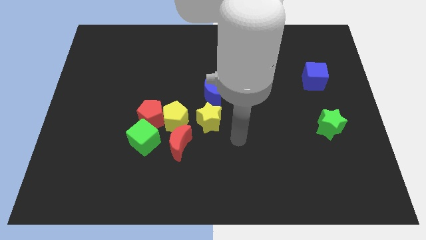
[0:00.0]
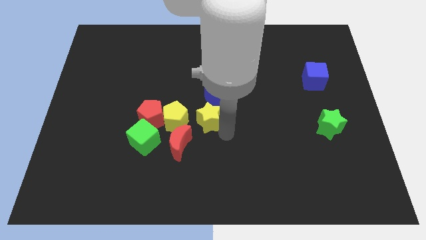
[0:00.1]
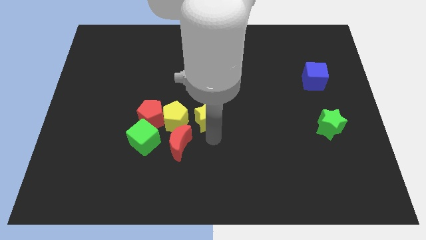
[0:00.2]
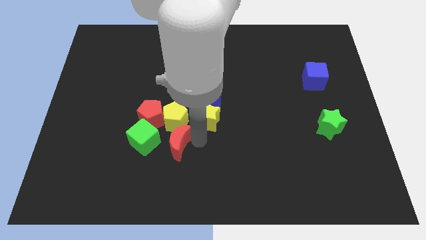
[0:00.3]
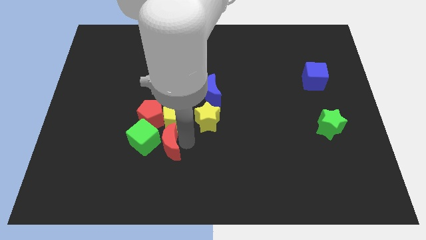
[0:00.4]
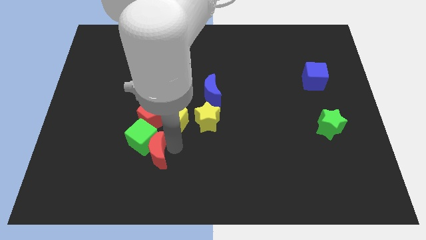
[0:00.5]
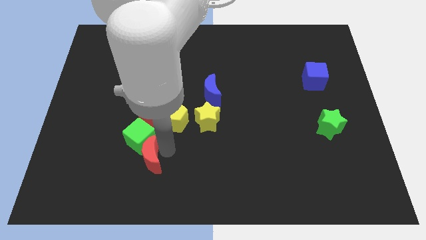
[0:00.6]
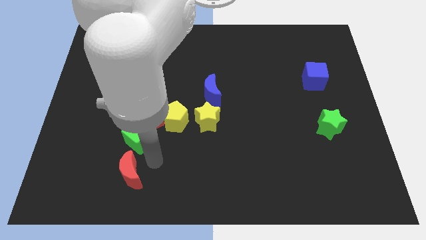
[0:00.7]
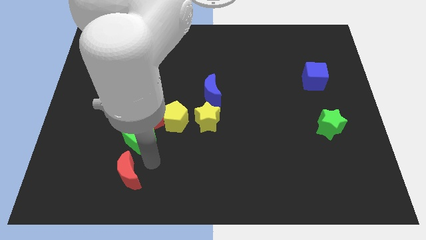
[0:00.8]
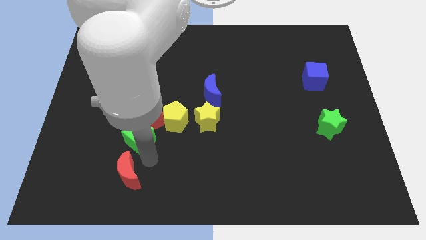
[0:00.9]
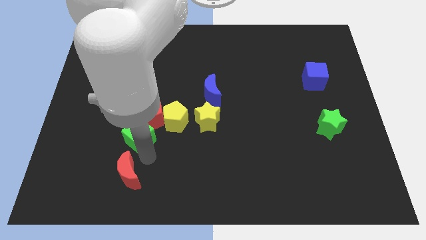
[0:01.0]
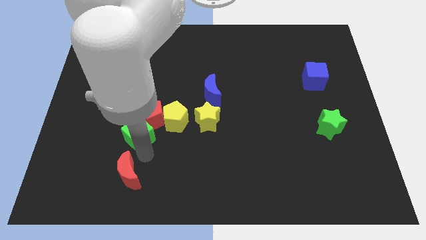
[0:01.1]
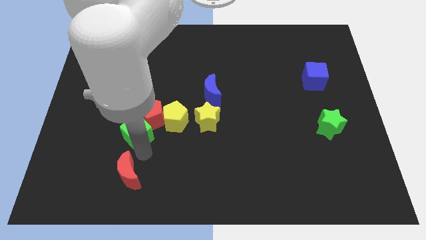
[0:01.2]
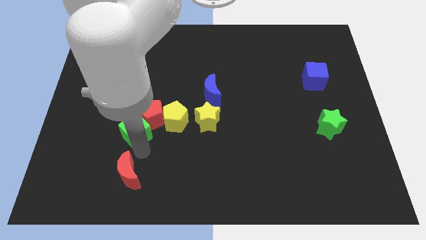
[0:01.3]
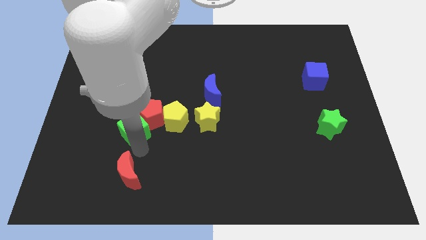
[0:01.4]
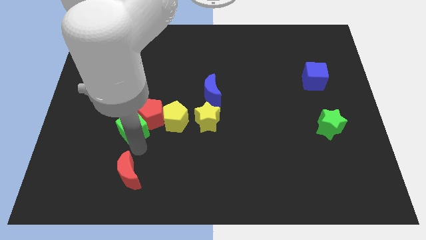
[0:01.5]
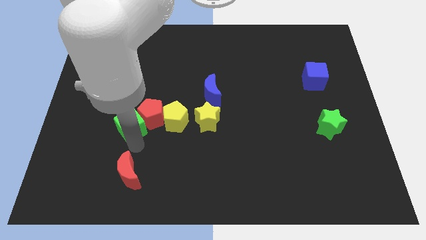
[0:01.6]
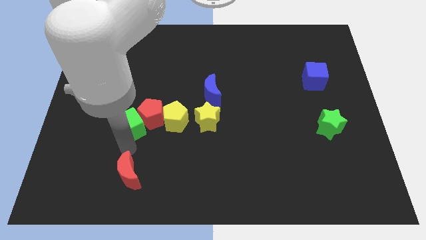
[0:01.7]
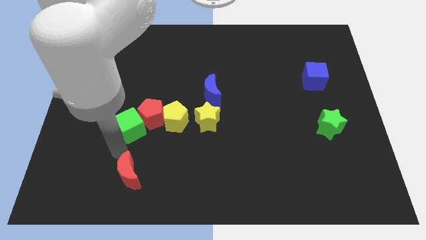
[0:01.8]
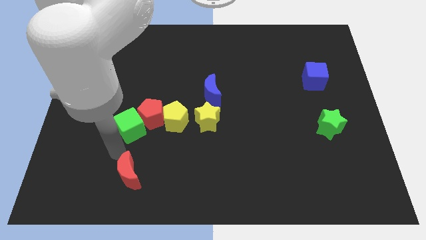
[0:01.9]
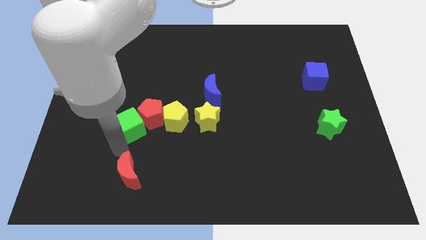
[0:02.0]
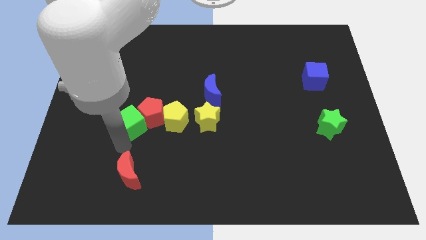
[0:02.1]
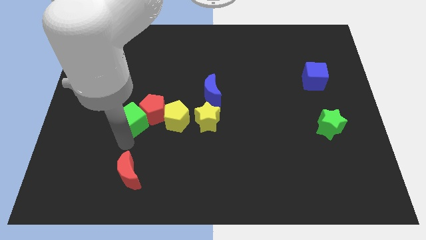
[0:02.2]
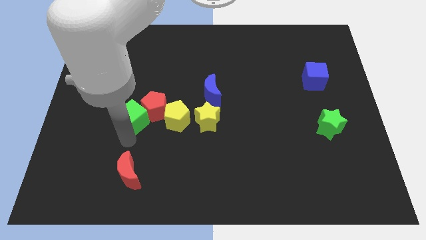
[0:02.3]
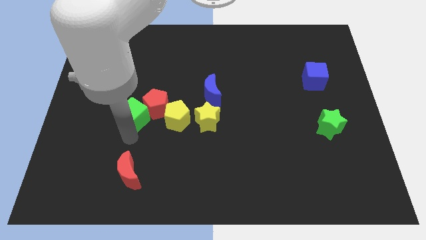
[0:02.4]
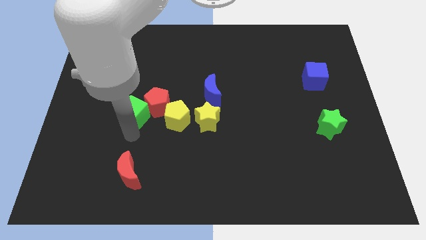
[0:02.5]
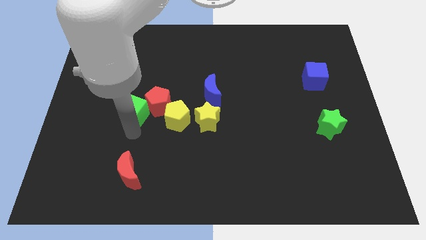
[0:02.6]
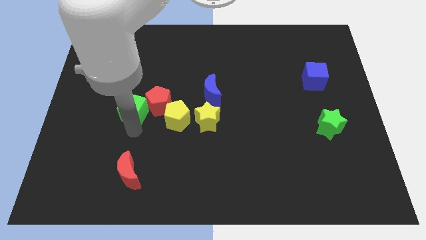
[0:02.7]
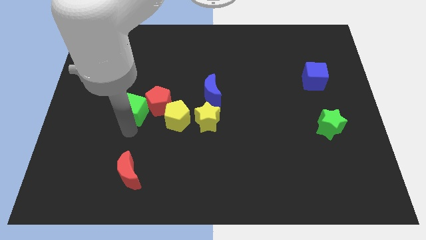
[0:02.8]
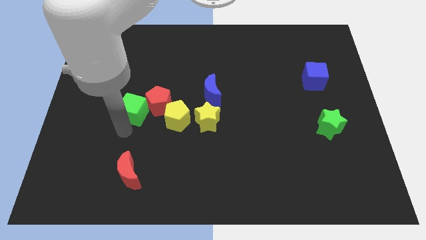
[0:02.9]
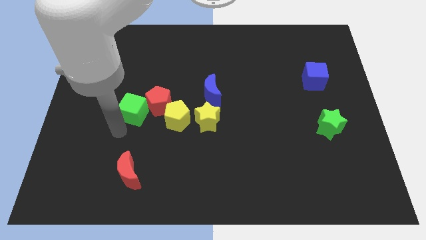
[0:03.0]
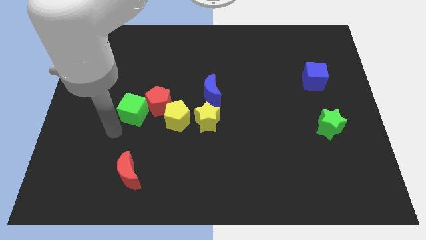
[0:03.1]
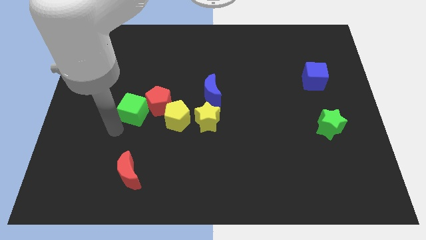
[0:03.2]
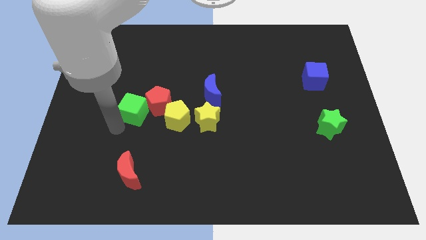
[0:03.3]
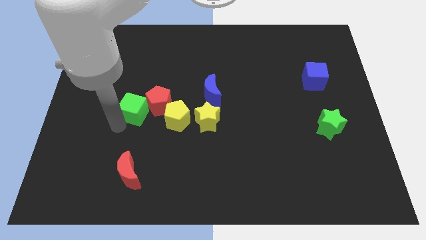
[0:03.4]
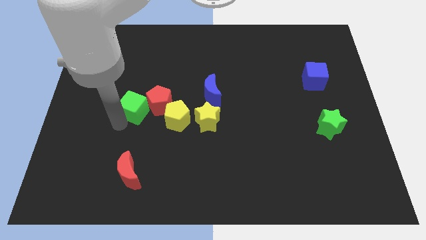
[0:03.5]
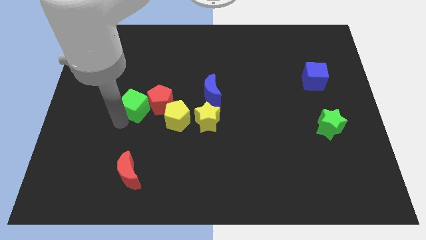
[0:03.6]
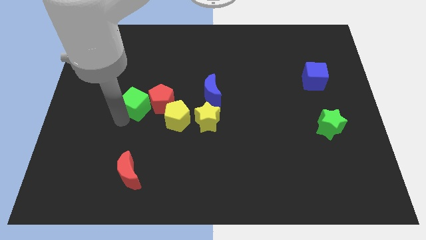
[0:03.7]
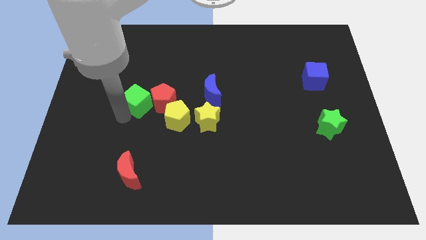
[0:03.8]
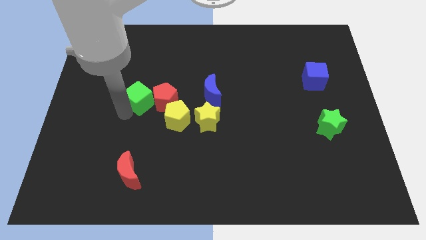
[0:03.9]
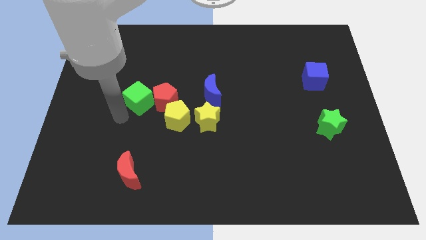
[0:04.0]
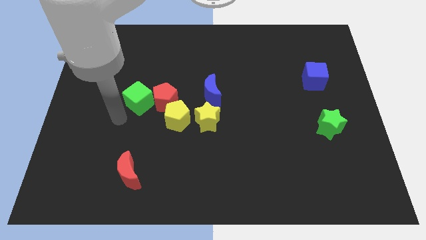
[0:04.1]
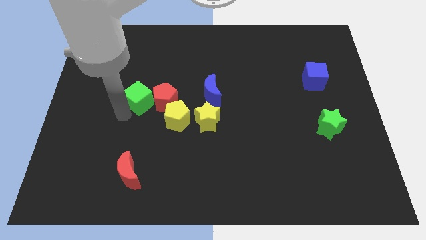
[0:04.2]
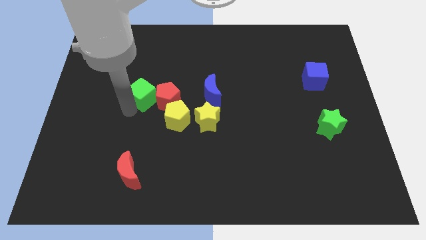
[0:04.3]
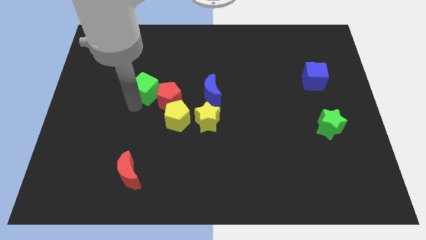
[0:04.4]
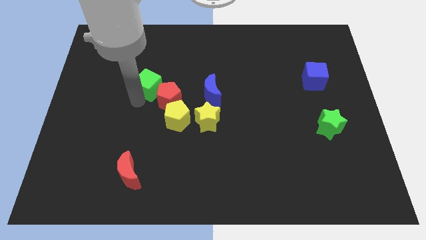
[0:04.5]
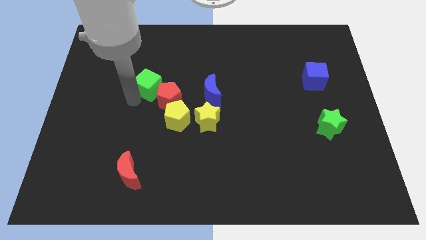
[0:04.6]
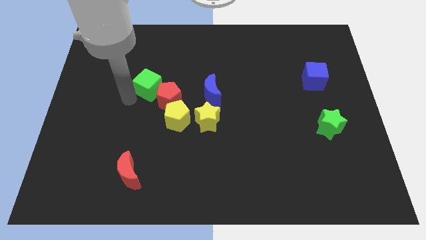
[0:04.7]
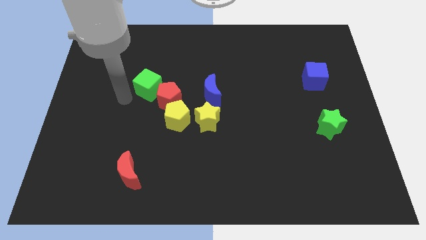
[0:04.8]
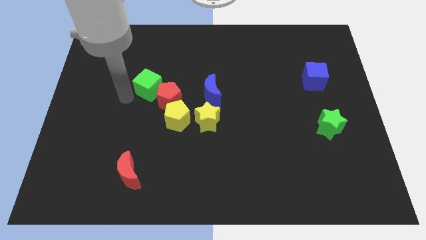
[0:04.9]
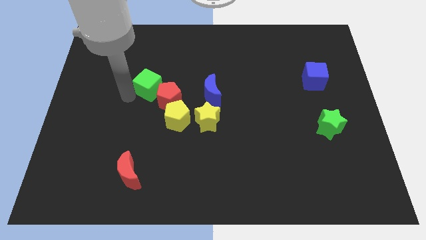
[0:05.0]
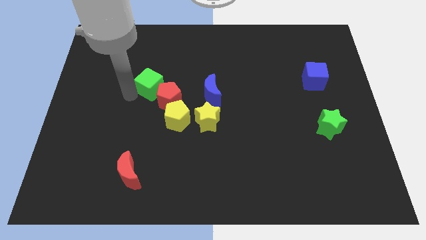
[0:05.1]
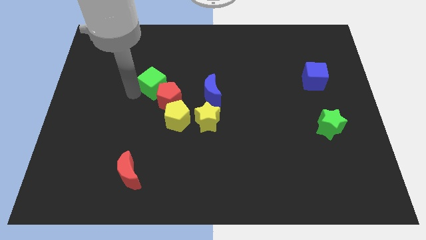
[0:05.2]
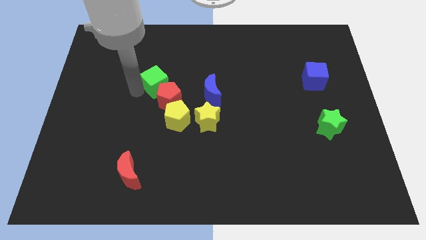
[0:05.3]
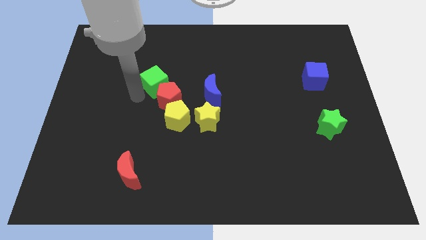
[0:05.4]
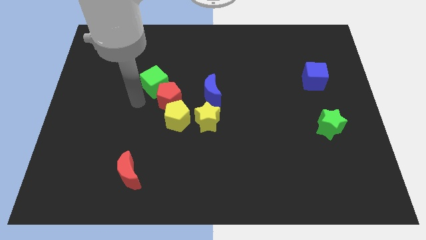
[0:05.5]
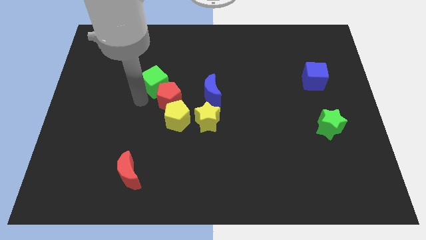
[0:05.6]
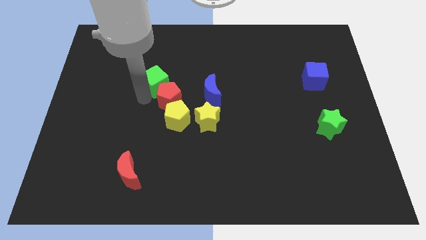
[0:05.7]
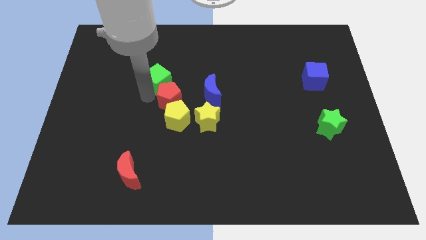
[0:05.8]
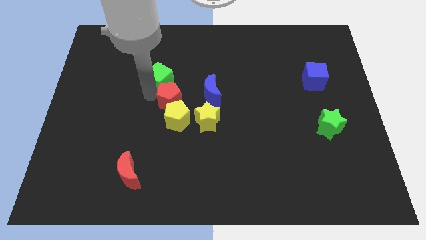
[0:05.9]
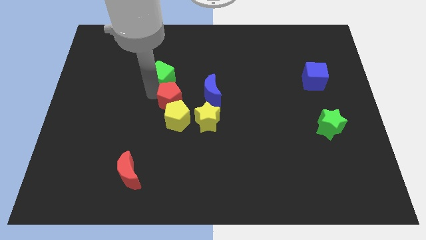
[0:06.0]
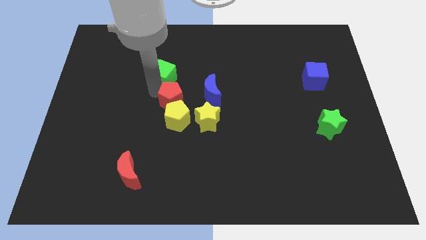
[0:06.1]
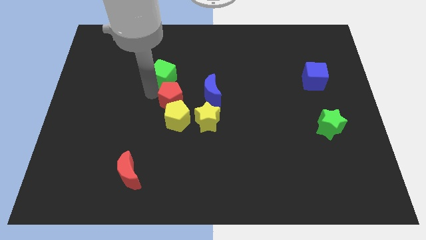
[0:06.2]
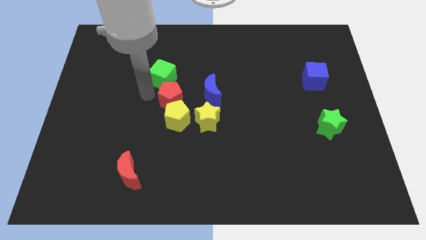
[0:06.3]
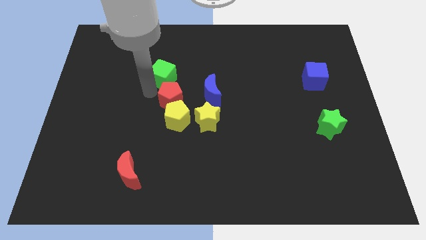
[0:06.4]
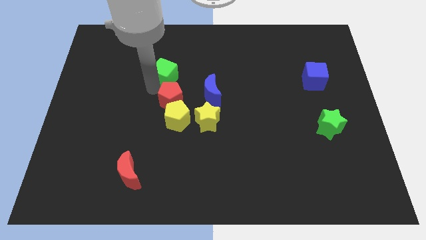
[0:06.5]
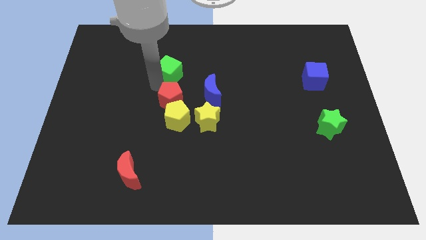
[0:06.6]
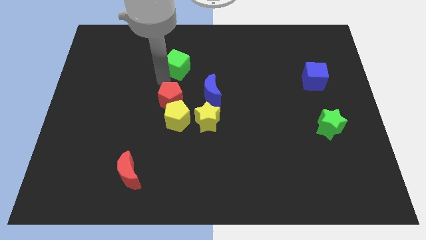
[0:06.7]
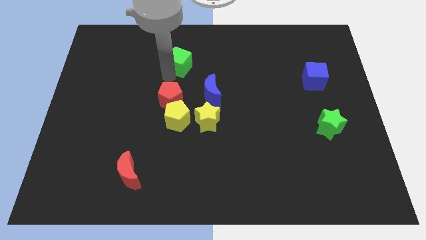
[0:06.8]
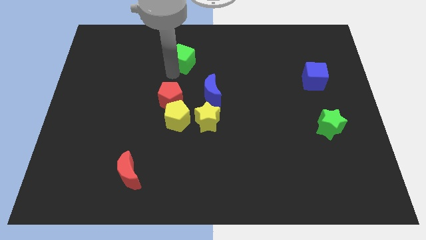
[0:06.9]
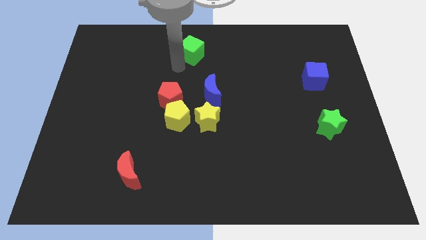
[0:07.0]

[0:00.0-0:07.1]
move the green cube to the top side
